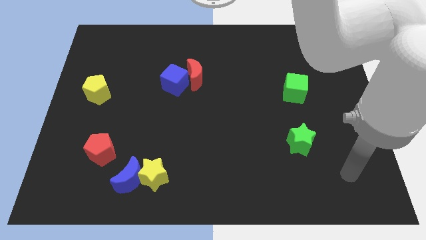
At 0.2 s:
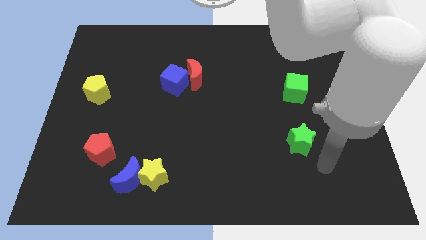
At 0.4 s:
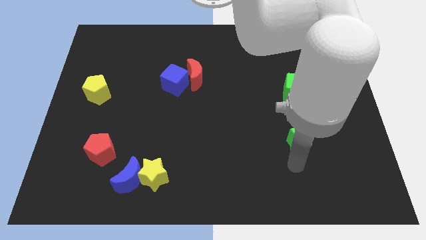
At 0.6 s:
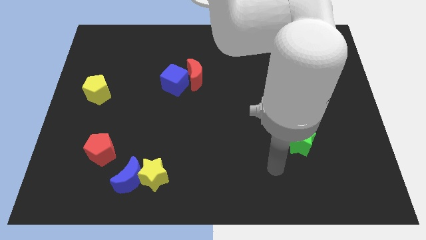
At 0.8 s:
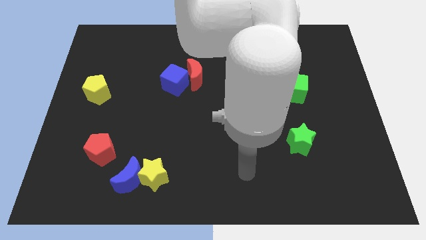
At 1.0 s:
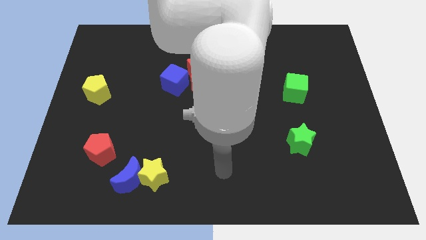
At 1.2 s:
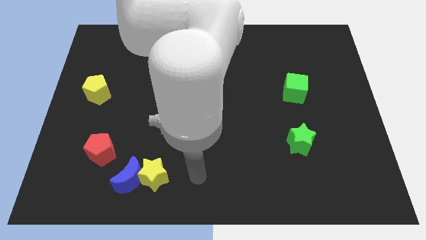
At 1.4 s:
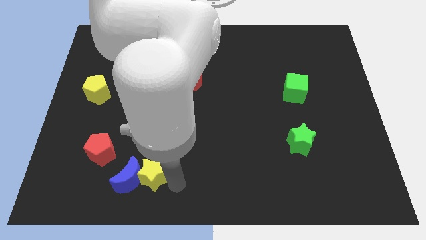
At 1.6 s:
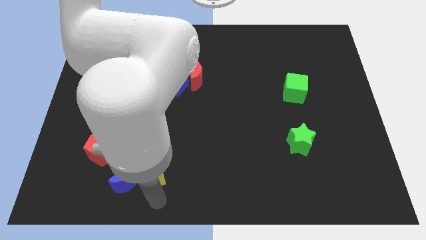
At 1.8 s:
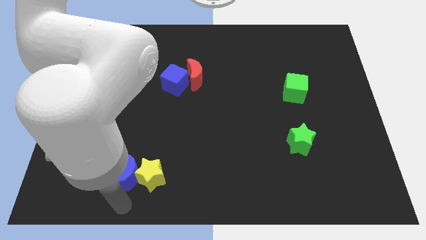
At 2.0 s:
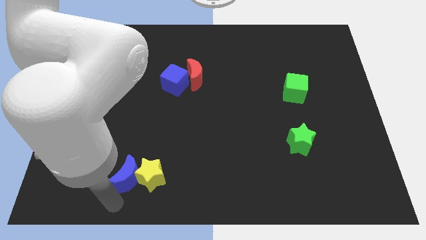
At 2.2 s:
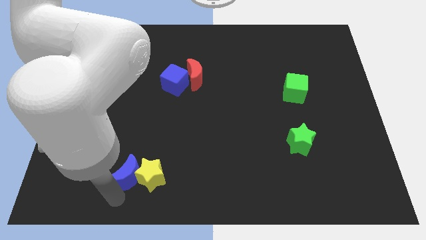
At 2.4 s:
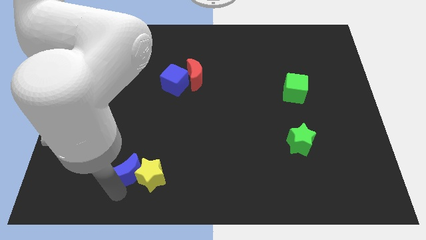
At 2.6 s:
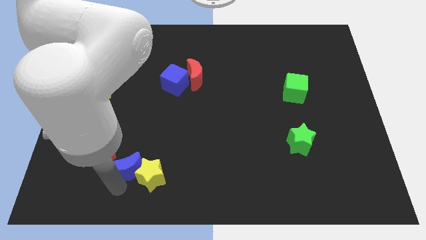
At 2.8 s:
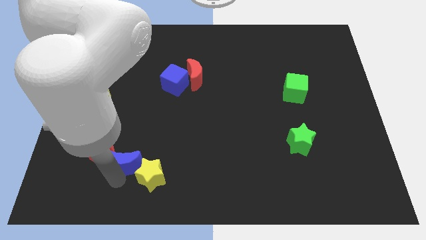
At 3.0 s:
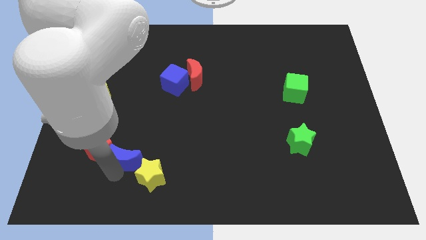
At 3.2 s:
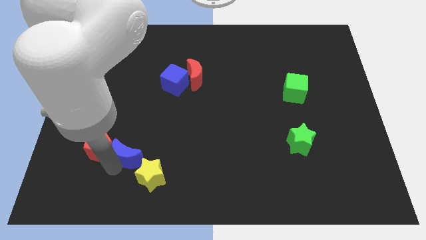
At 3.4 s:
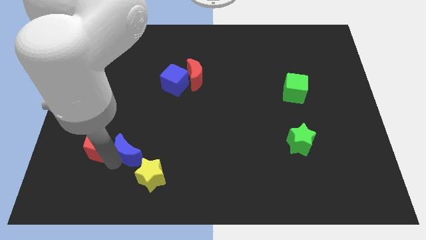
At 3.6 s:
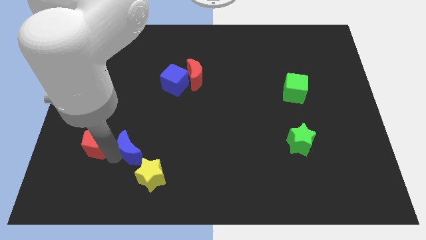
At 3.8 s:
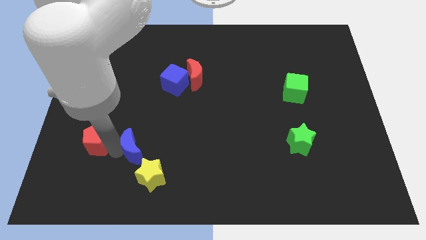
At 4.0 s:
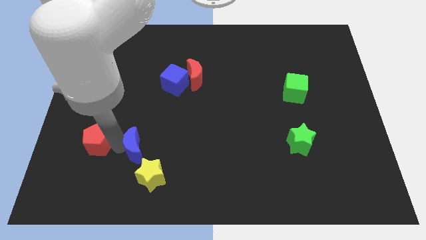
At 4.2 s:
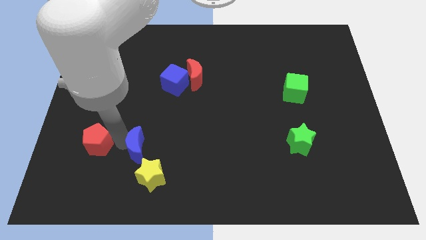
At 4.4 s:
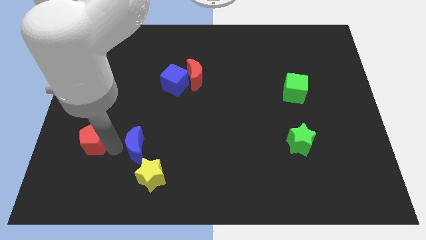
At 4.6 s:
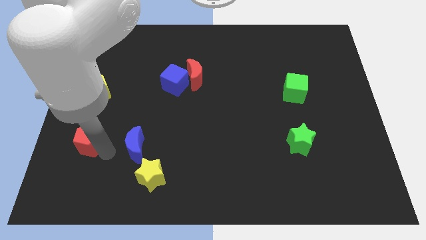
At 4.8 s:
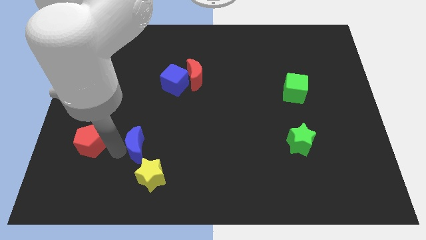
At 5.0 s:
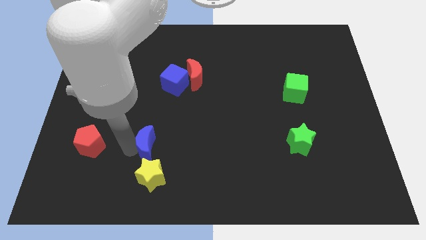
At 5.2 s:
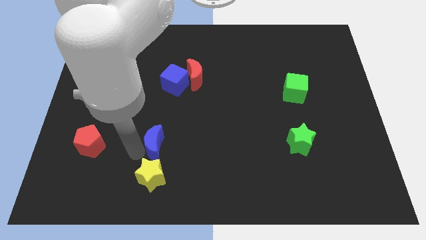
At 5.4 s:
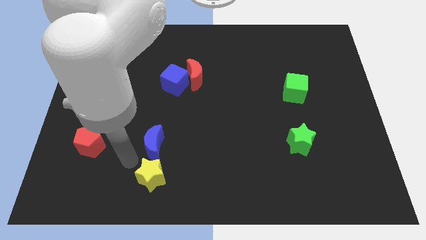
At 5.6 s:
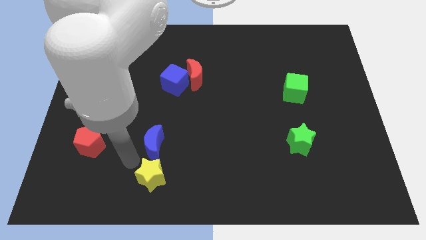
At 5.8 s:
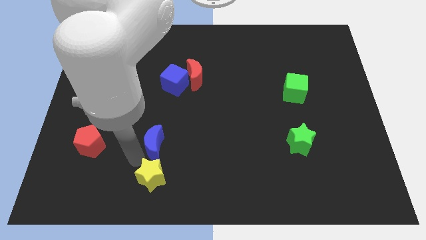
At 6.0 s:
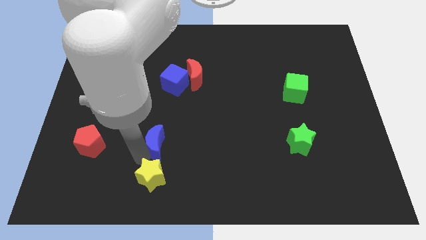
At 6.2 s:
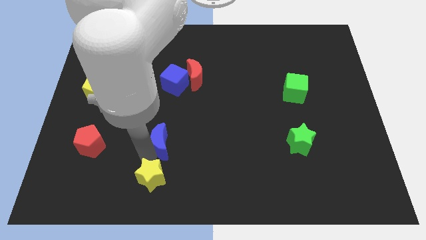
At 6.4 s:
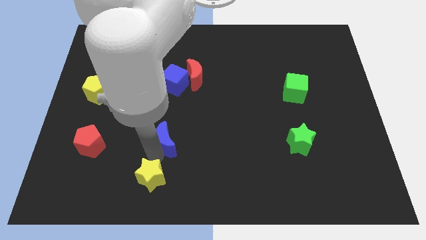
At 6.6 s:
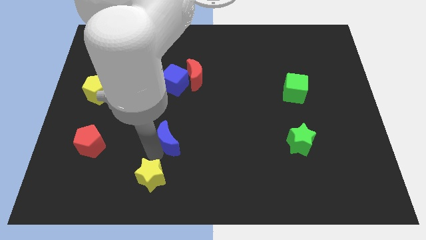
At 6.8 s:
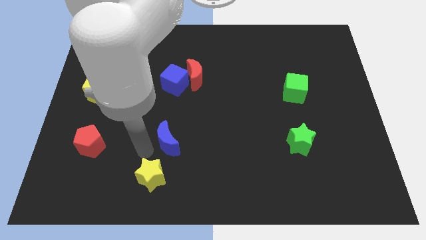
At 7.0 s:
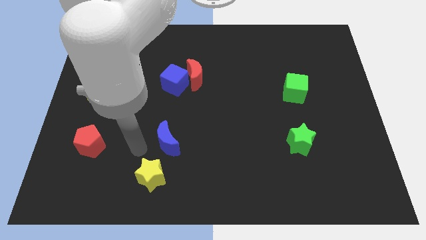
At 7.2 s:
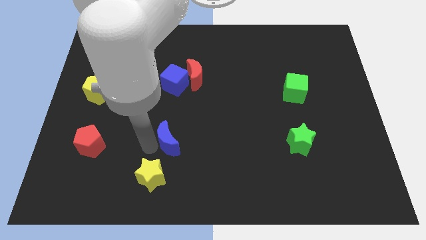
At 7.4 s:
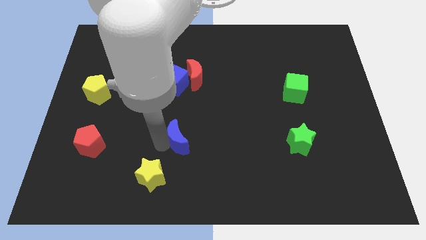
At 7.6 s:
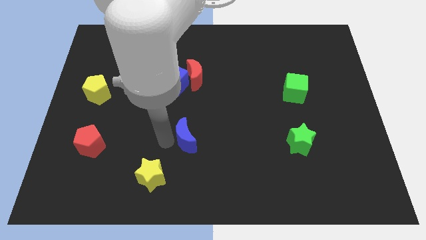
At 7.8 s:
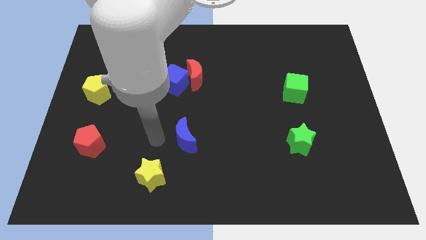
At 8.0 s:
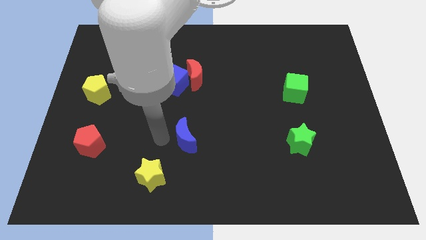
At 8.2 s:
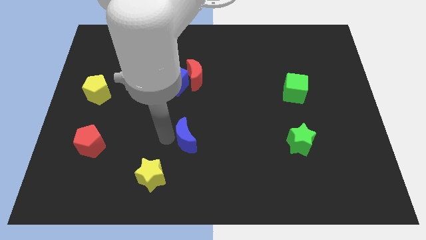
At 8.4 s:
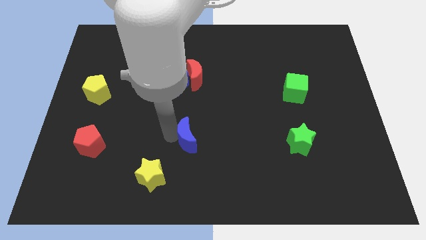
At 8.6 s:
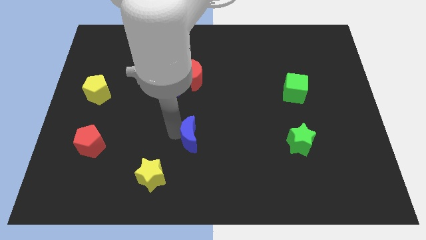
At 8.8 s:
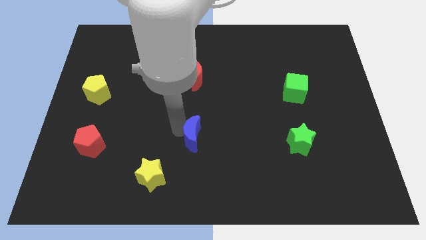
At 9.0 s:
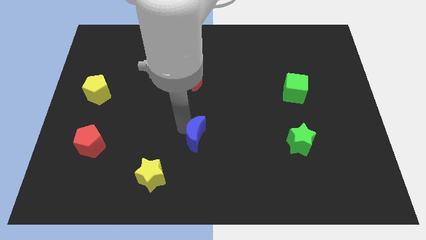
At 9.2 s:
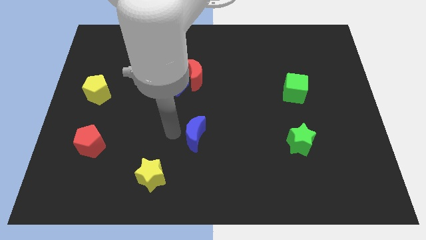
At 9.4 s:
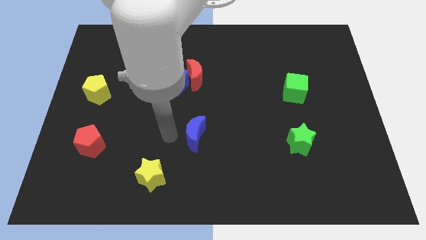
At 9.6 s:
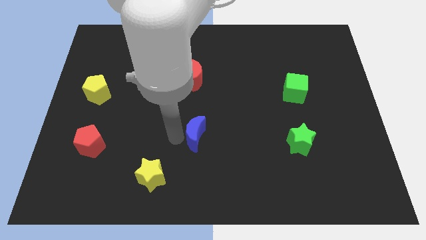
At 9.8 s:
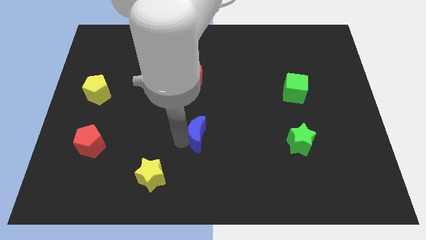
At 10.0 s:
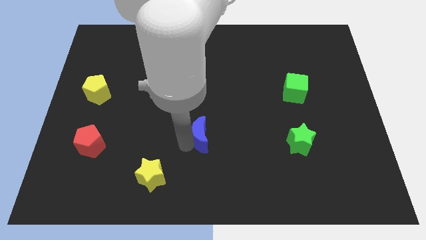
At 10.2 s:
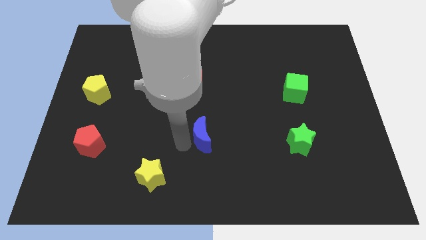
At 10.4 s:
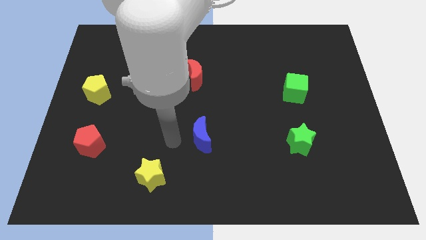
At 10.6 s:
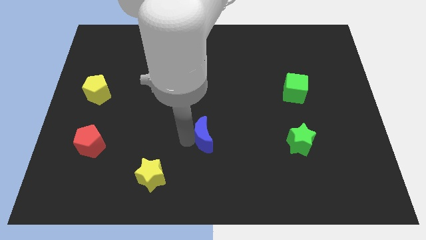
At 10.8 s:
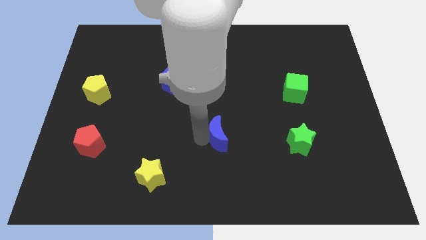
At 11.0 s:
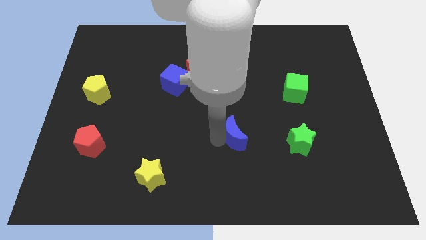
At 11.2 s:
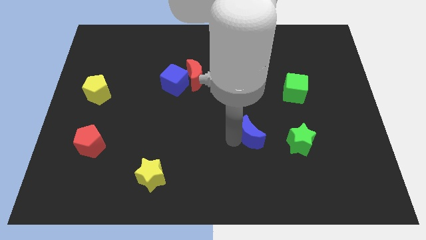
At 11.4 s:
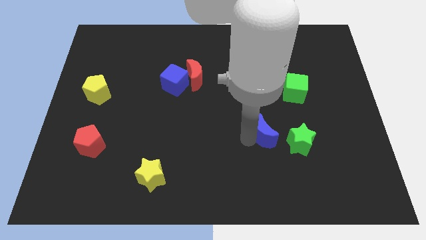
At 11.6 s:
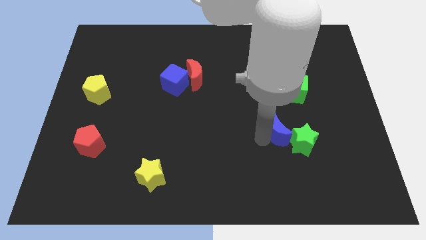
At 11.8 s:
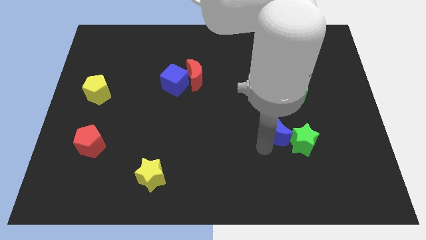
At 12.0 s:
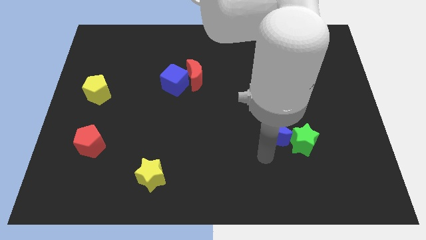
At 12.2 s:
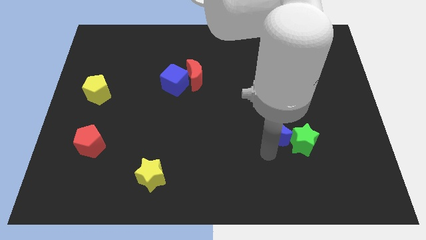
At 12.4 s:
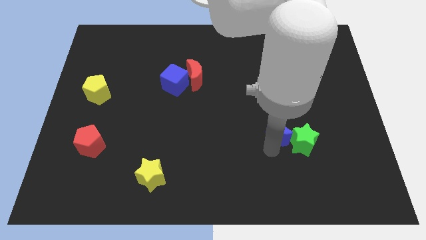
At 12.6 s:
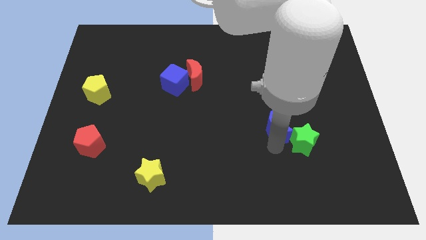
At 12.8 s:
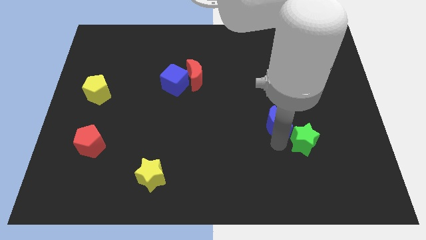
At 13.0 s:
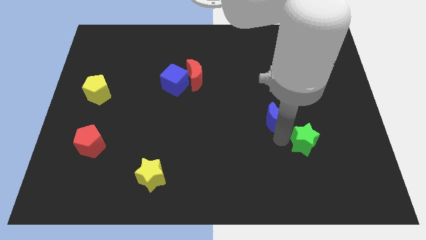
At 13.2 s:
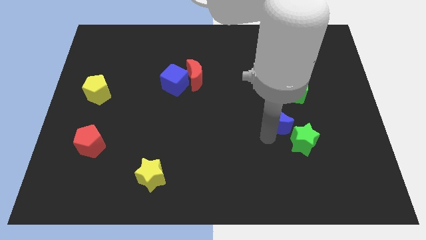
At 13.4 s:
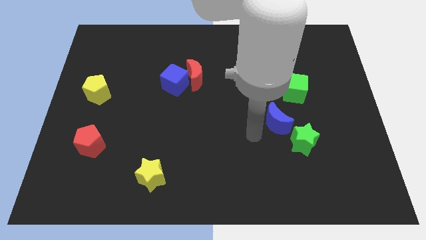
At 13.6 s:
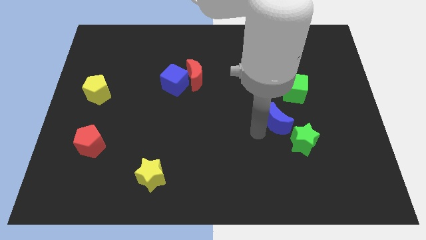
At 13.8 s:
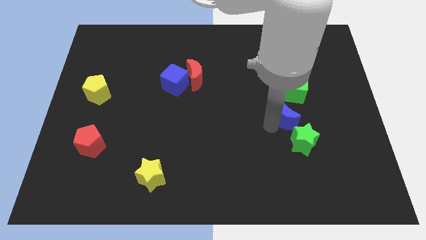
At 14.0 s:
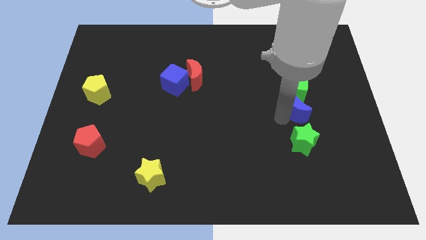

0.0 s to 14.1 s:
push the blue moon diagonally down and to the right of the green cube
